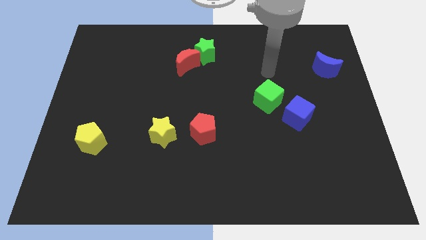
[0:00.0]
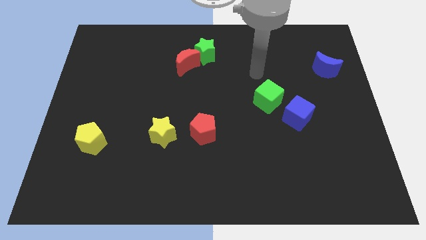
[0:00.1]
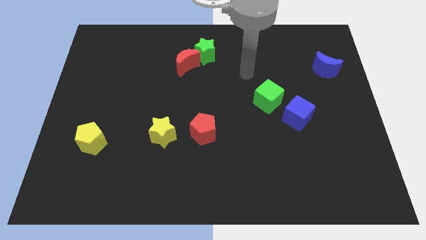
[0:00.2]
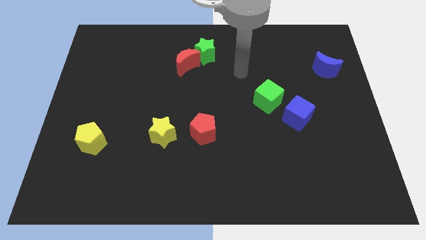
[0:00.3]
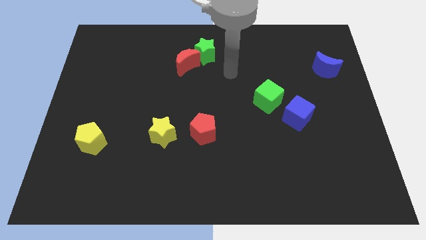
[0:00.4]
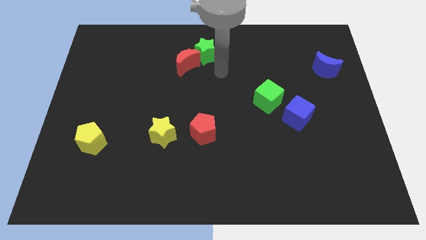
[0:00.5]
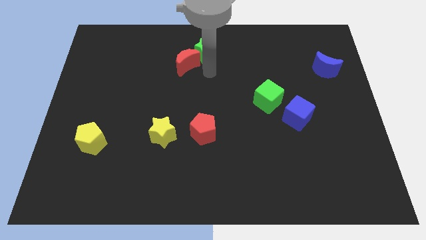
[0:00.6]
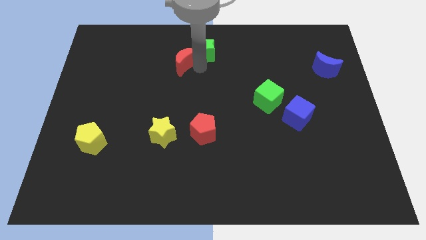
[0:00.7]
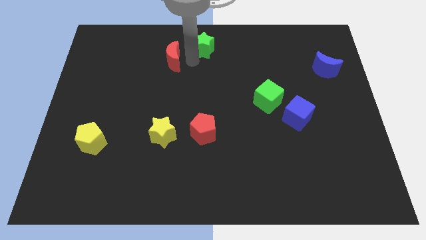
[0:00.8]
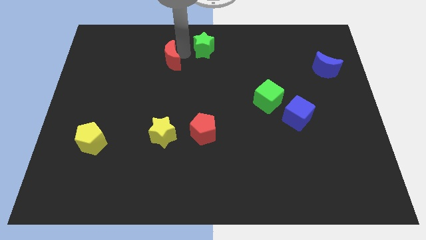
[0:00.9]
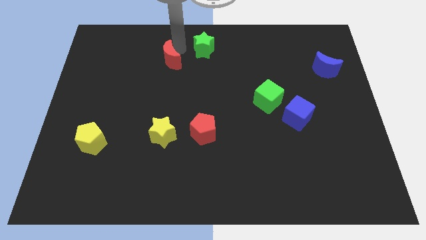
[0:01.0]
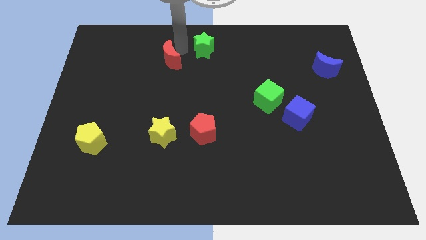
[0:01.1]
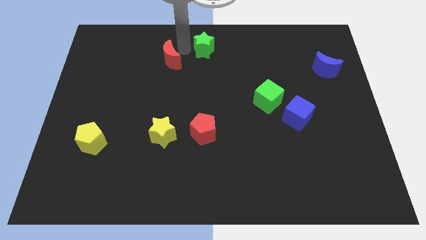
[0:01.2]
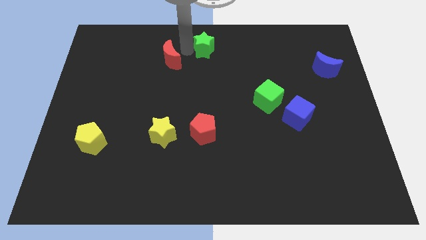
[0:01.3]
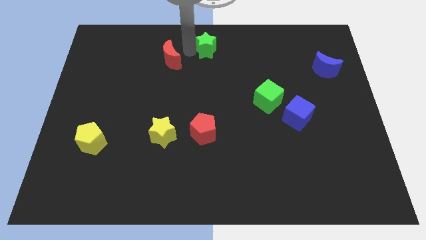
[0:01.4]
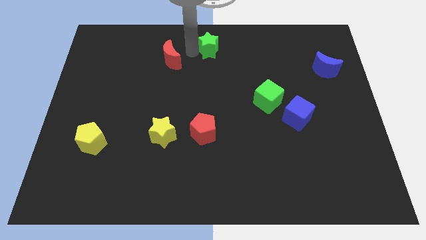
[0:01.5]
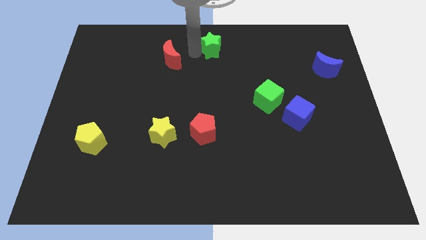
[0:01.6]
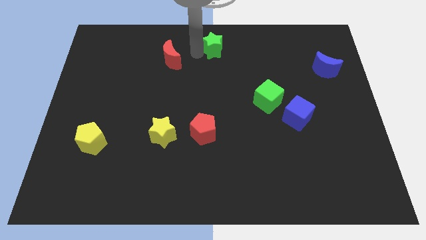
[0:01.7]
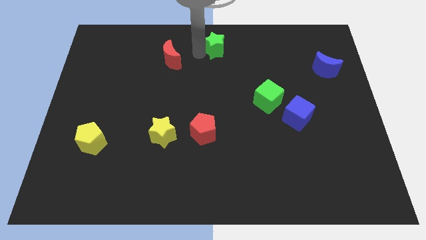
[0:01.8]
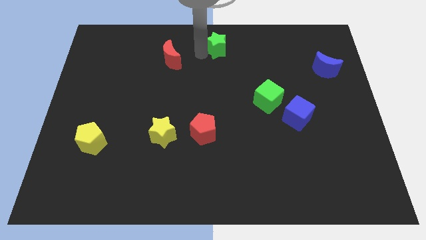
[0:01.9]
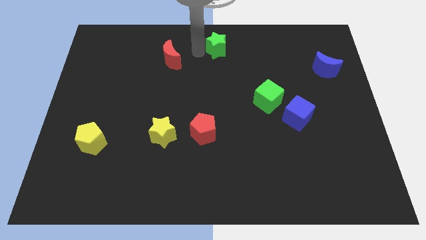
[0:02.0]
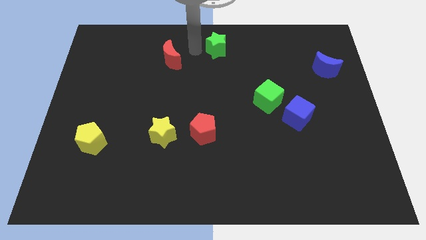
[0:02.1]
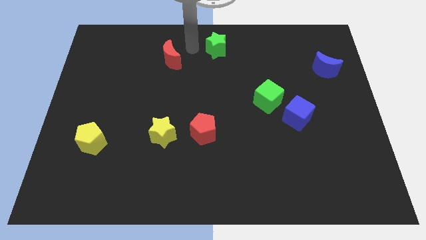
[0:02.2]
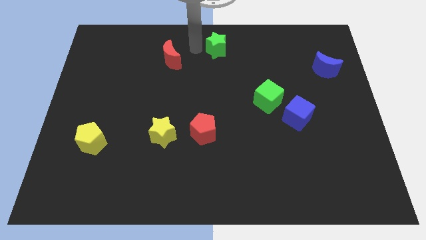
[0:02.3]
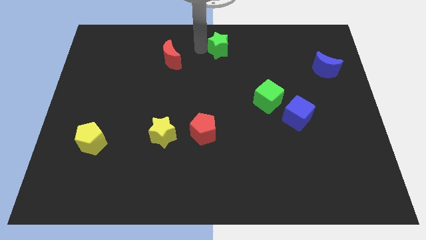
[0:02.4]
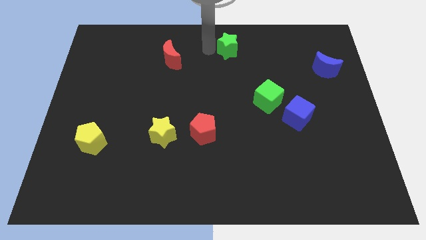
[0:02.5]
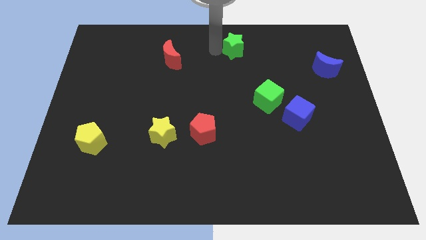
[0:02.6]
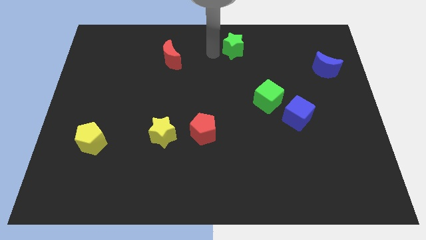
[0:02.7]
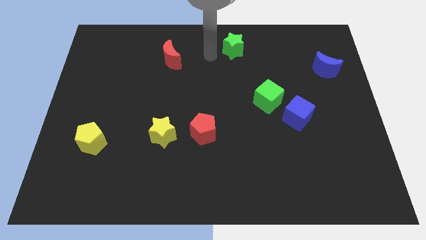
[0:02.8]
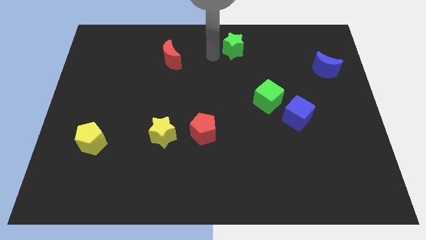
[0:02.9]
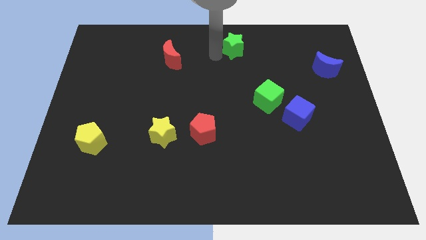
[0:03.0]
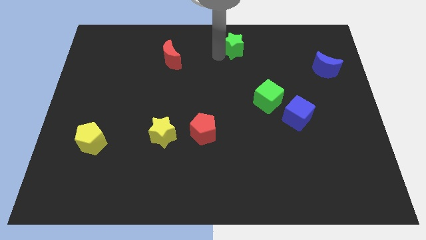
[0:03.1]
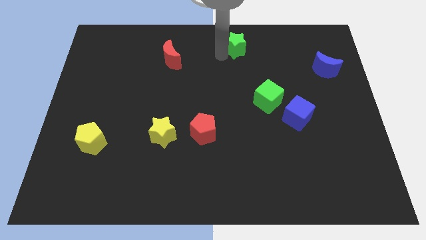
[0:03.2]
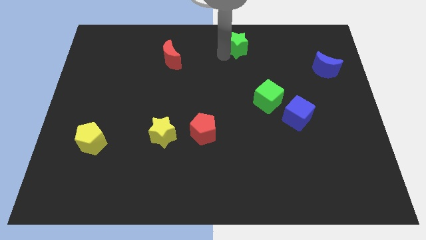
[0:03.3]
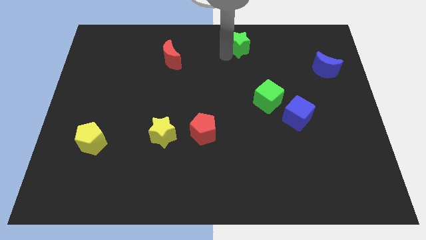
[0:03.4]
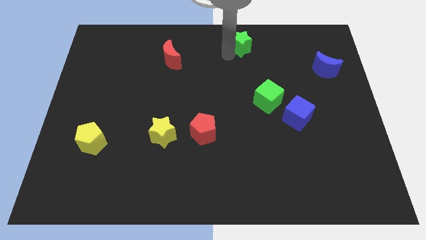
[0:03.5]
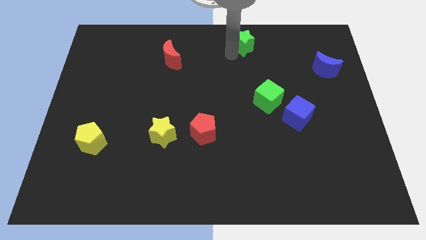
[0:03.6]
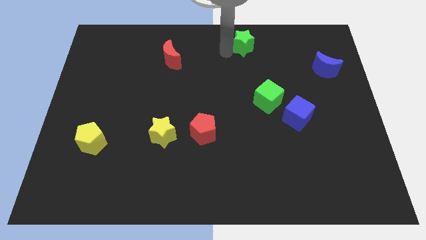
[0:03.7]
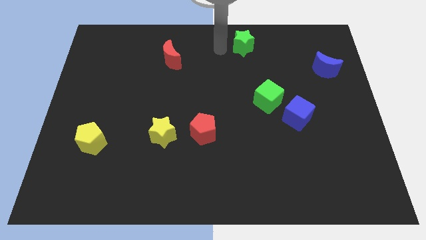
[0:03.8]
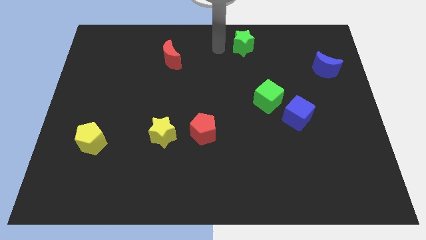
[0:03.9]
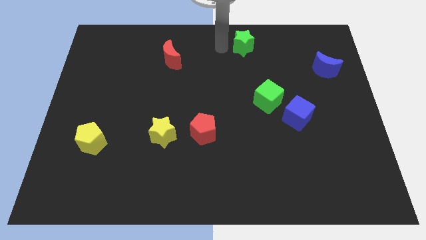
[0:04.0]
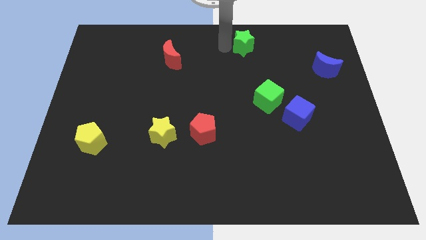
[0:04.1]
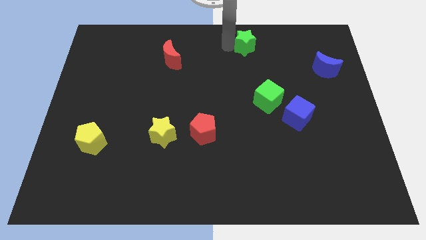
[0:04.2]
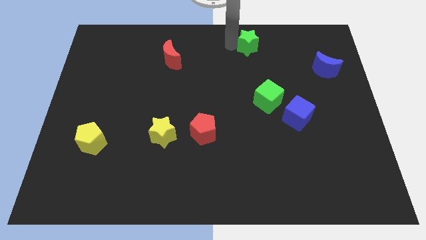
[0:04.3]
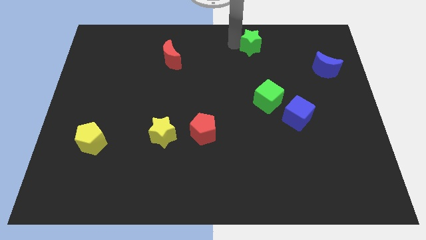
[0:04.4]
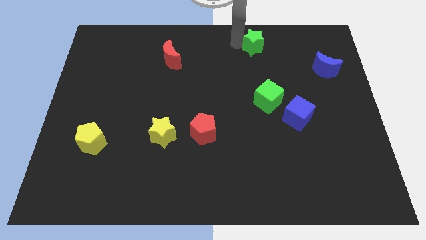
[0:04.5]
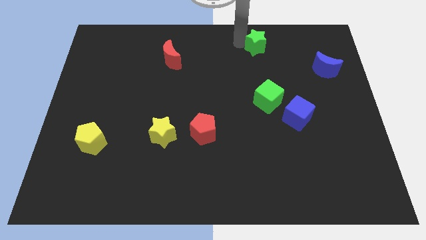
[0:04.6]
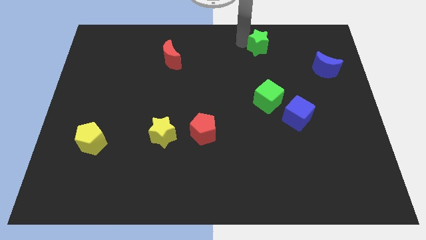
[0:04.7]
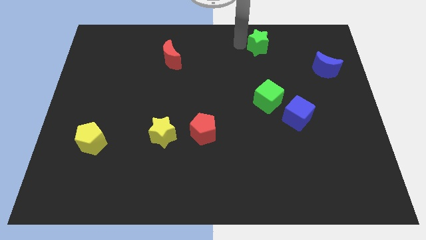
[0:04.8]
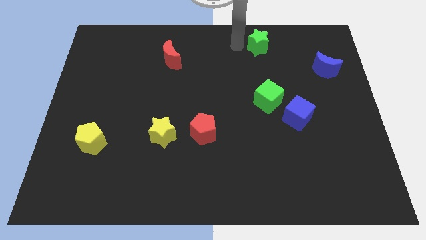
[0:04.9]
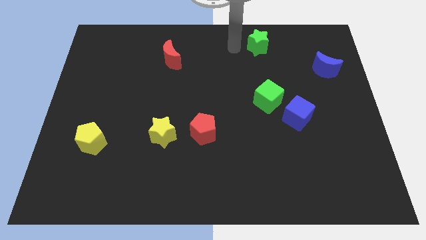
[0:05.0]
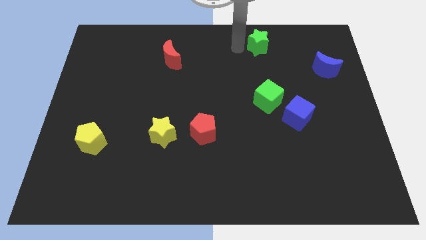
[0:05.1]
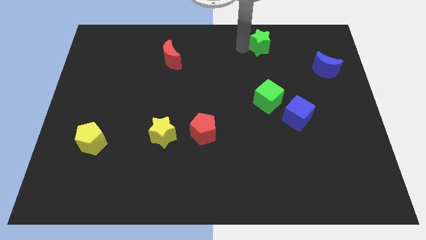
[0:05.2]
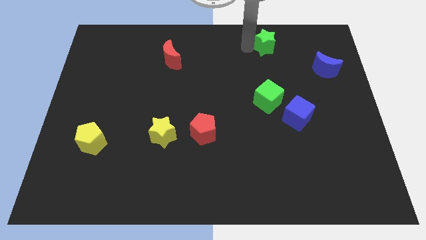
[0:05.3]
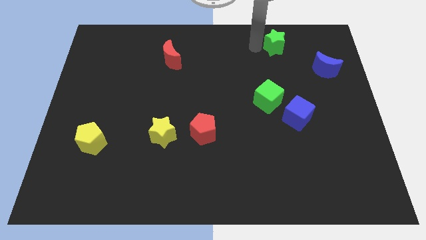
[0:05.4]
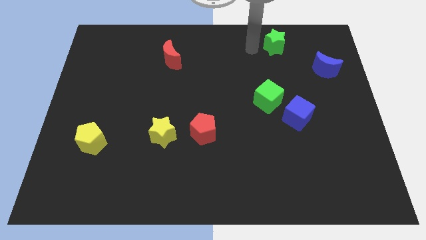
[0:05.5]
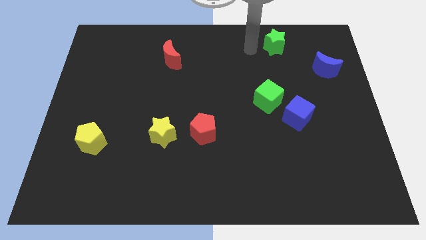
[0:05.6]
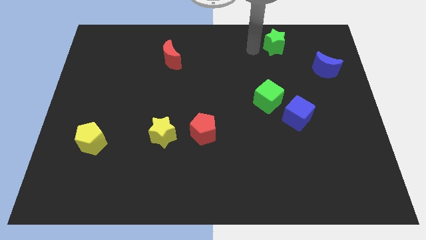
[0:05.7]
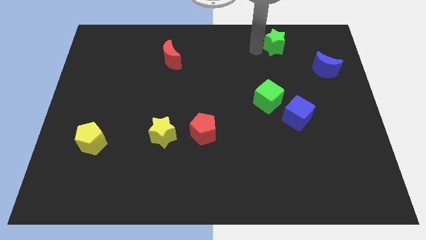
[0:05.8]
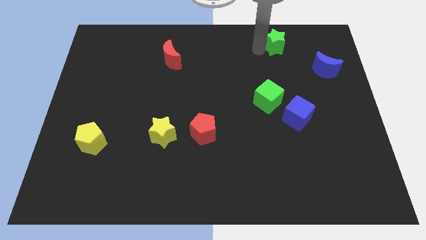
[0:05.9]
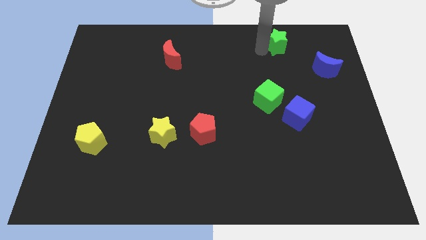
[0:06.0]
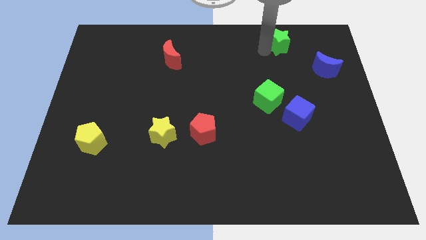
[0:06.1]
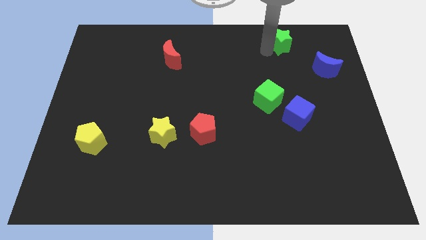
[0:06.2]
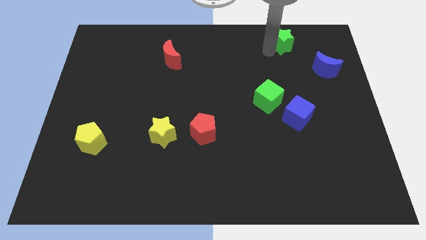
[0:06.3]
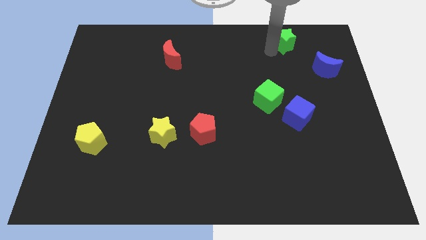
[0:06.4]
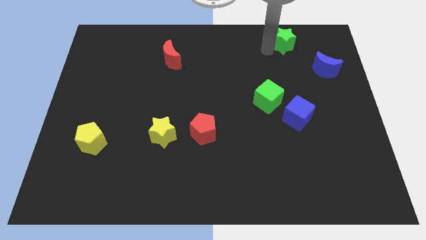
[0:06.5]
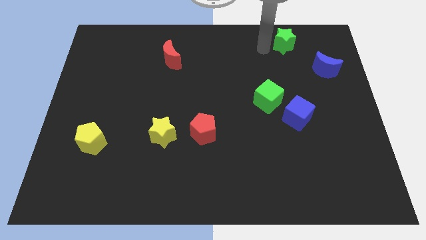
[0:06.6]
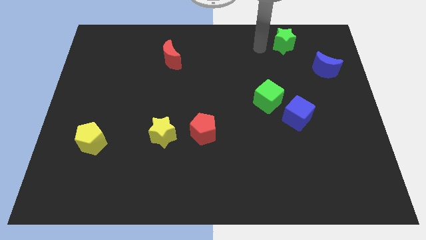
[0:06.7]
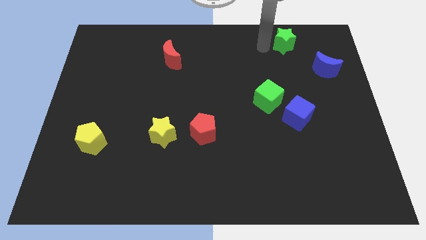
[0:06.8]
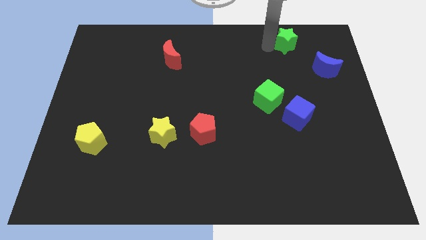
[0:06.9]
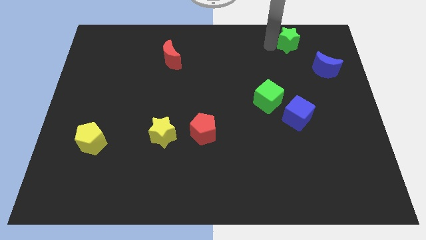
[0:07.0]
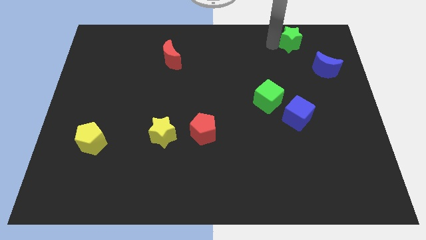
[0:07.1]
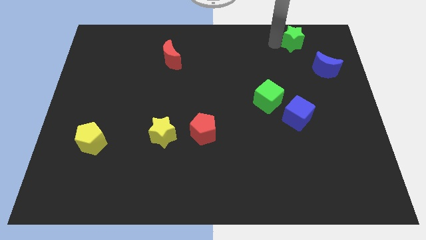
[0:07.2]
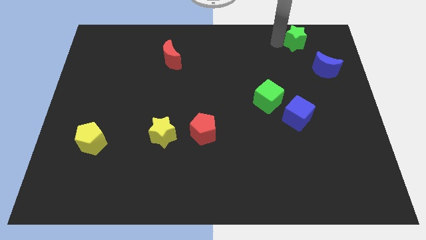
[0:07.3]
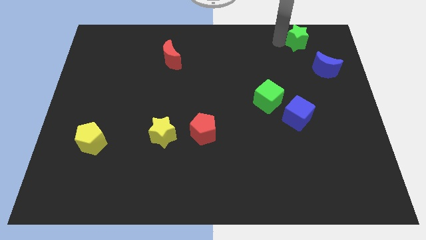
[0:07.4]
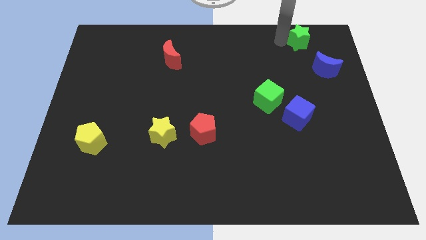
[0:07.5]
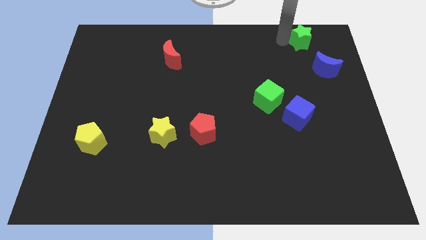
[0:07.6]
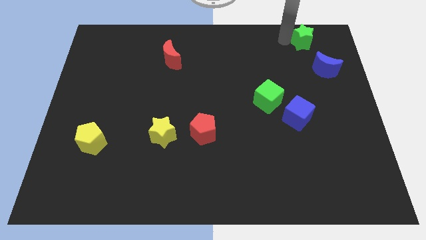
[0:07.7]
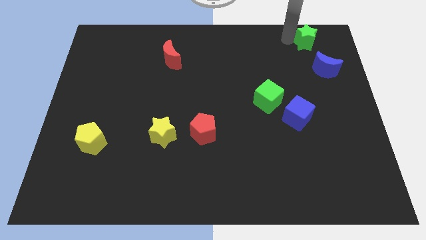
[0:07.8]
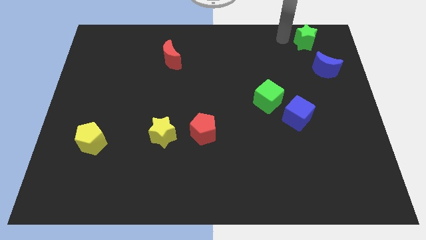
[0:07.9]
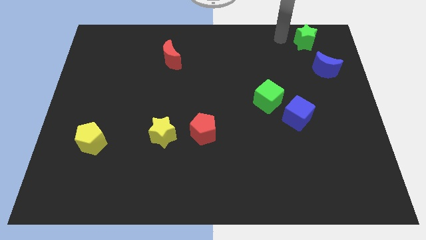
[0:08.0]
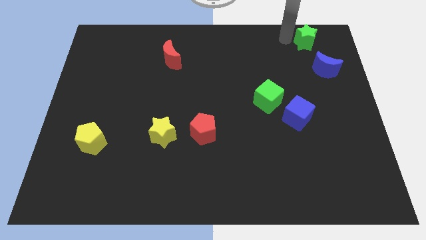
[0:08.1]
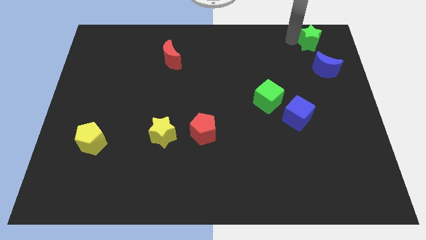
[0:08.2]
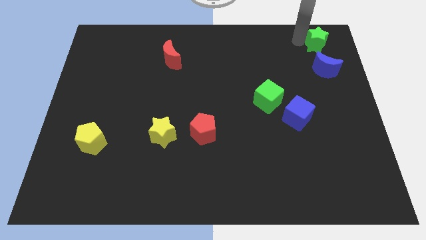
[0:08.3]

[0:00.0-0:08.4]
push the green star to the upper right corner
